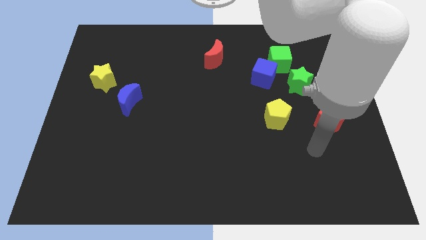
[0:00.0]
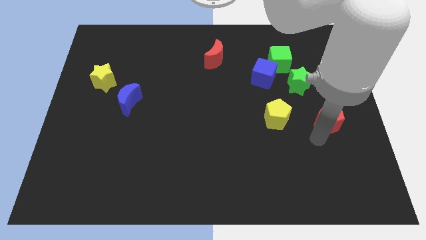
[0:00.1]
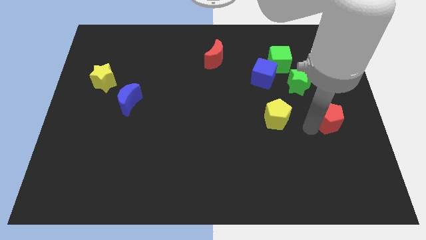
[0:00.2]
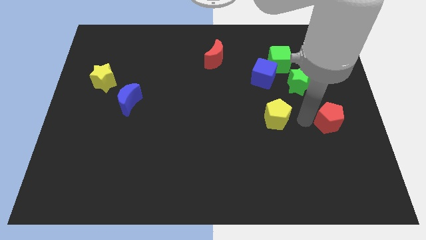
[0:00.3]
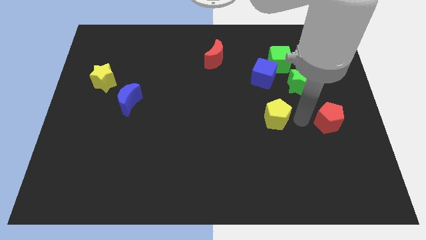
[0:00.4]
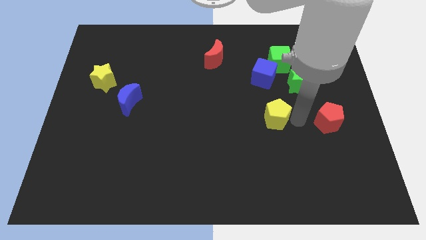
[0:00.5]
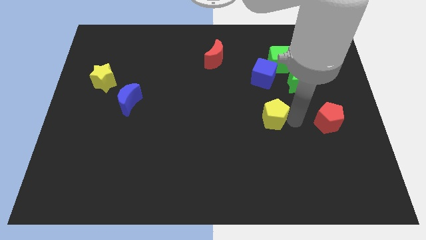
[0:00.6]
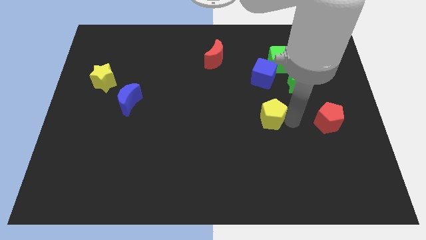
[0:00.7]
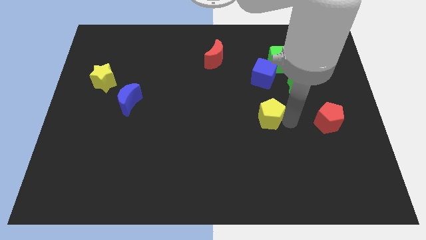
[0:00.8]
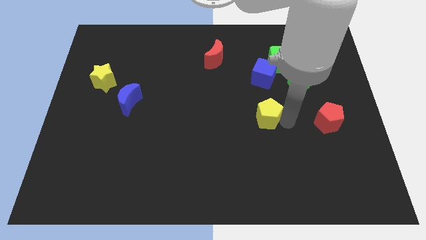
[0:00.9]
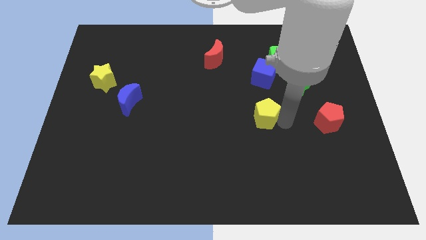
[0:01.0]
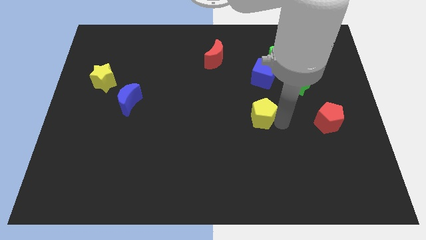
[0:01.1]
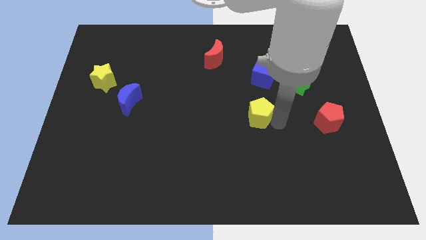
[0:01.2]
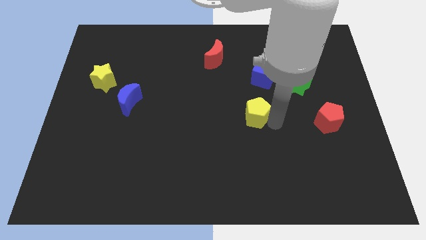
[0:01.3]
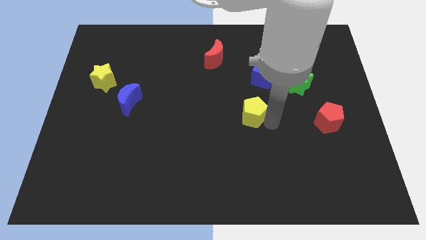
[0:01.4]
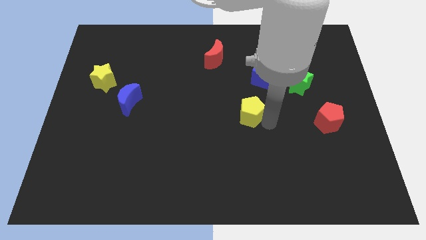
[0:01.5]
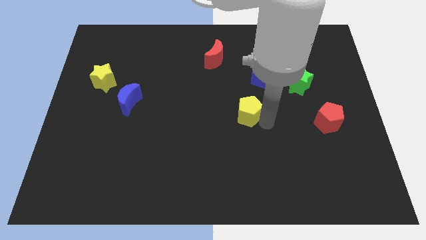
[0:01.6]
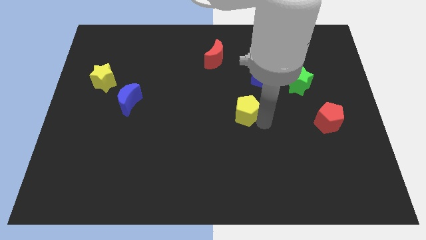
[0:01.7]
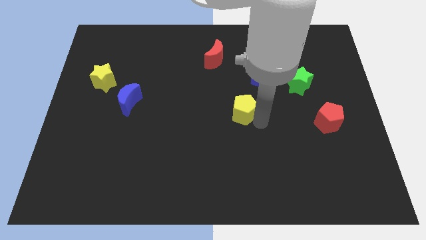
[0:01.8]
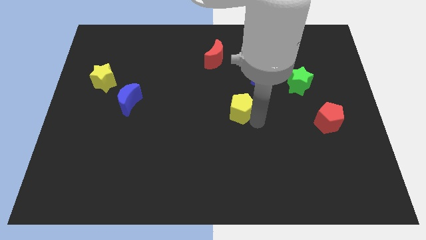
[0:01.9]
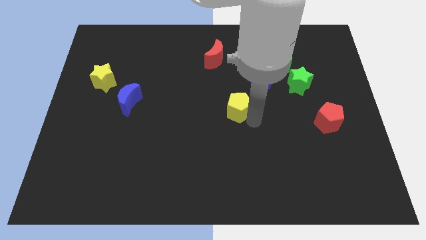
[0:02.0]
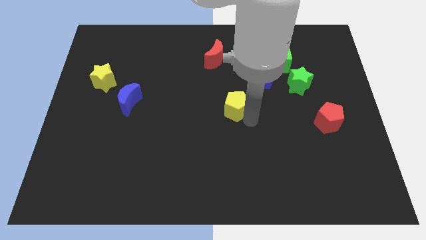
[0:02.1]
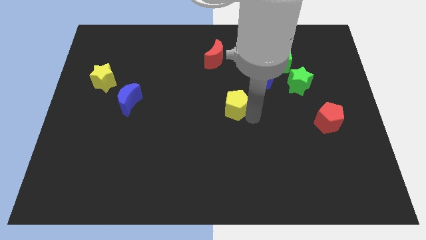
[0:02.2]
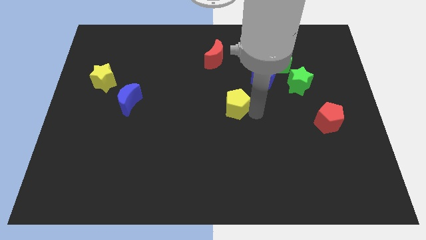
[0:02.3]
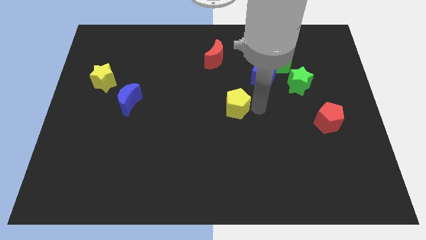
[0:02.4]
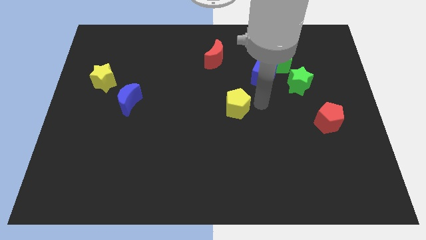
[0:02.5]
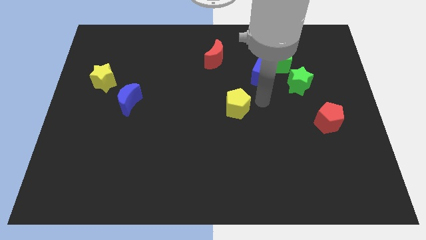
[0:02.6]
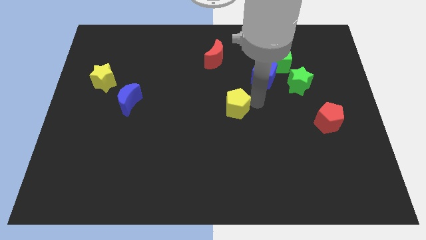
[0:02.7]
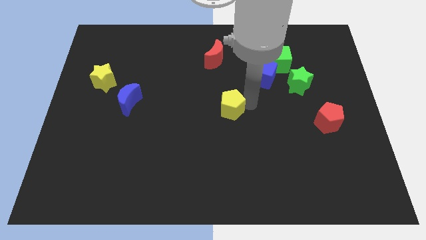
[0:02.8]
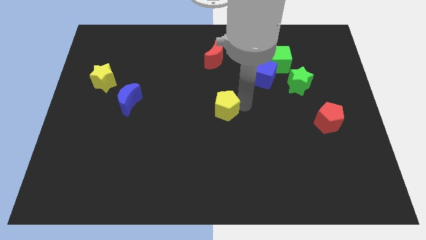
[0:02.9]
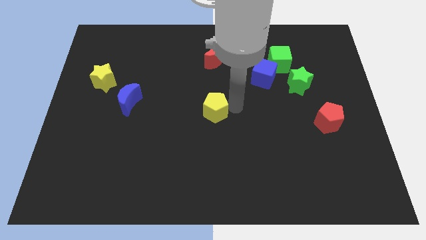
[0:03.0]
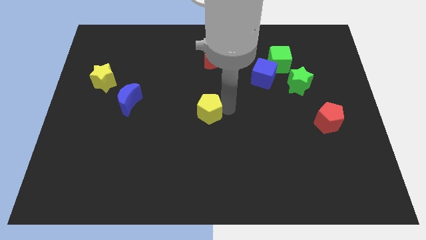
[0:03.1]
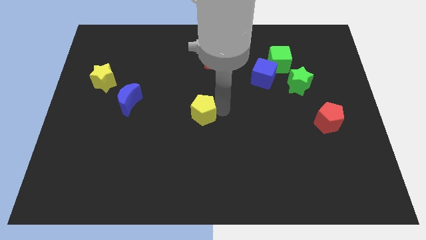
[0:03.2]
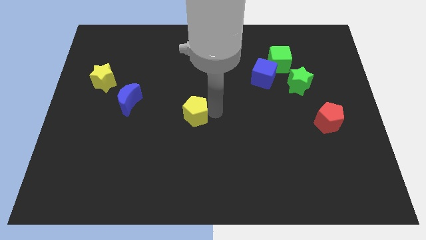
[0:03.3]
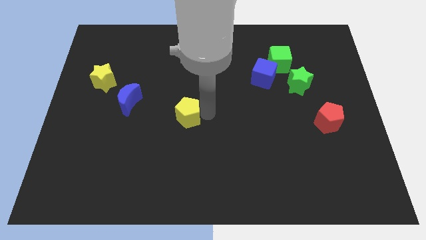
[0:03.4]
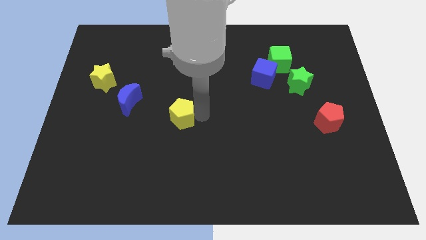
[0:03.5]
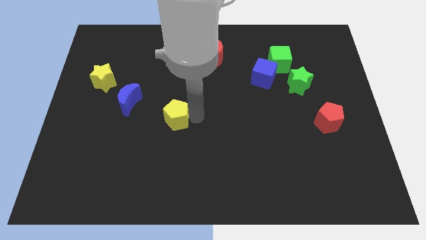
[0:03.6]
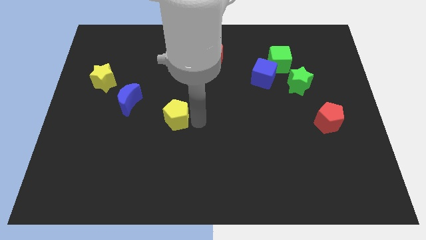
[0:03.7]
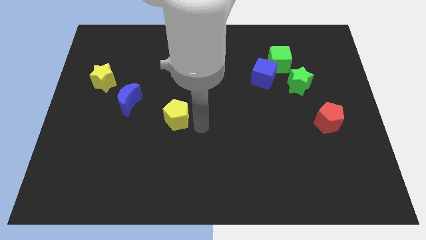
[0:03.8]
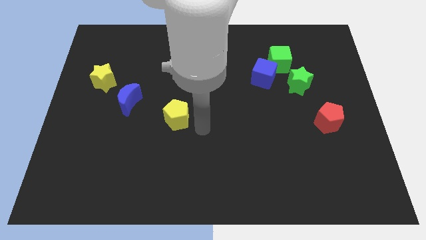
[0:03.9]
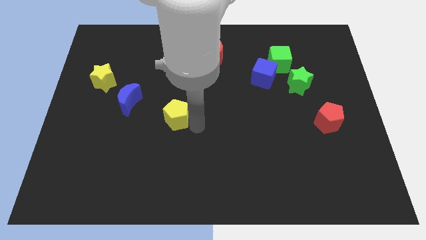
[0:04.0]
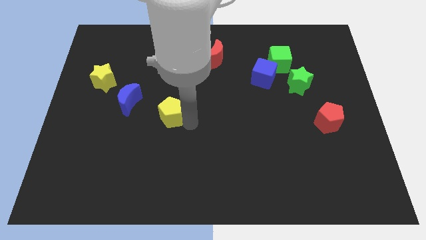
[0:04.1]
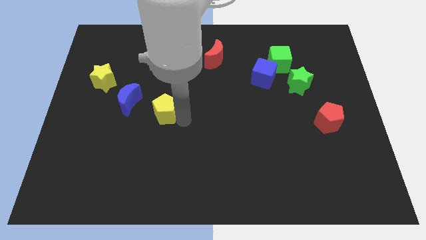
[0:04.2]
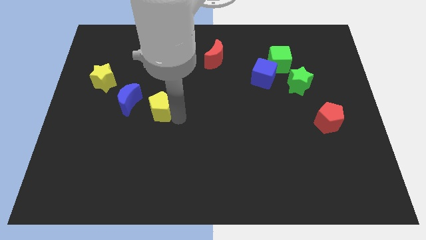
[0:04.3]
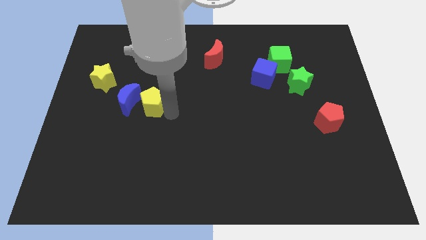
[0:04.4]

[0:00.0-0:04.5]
put the yellow pentagon to the blue moon

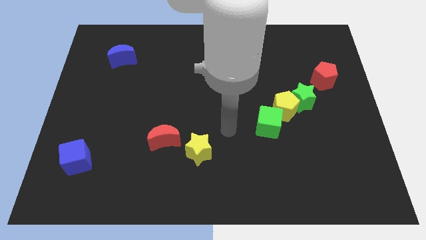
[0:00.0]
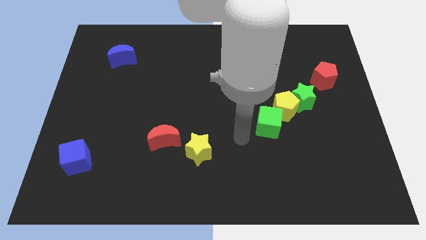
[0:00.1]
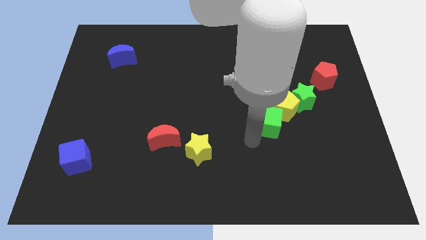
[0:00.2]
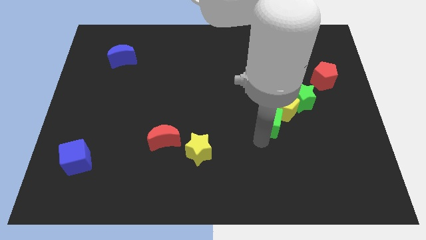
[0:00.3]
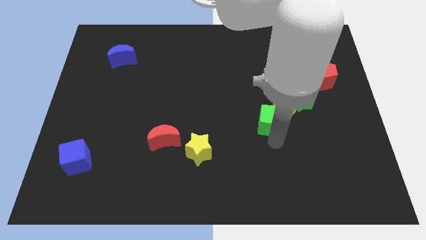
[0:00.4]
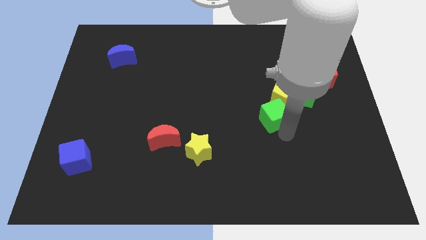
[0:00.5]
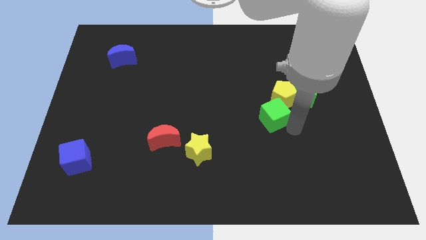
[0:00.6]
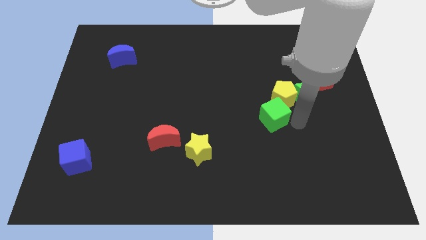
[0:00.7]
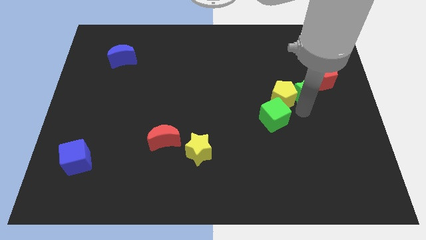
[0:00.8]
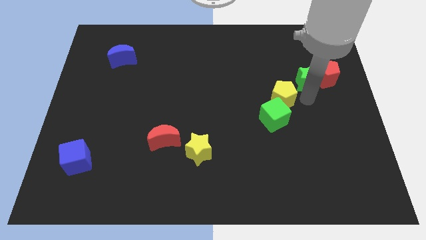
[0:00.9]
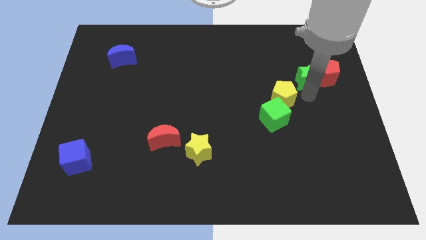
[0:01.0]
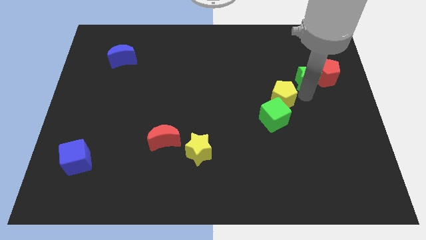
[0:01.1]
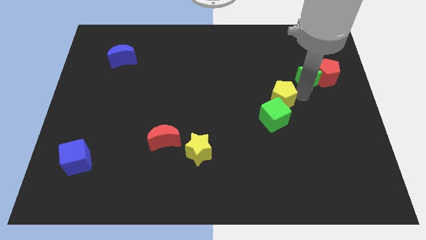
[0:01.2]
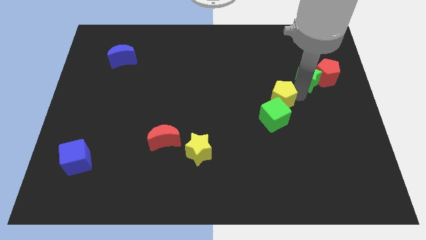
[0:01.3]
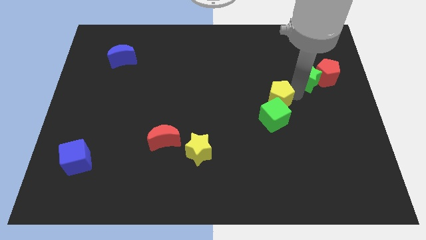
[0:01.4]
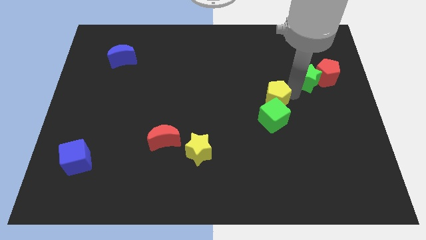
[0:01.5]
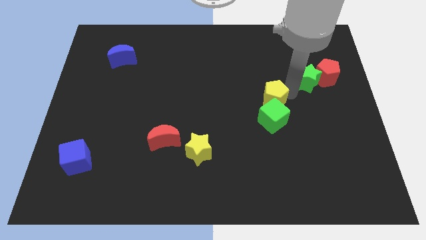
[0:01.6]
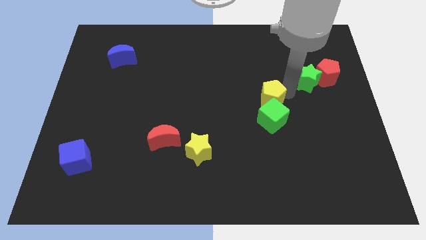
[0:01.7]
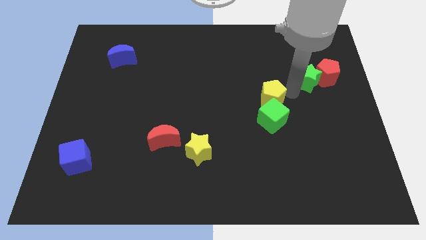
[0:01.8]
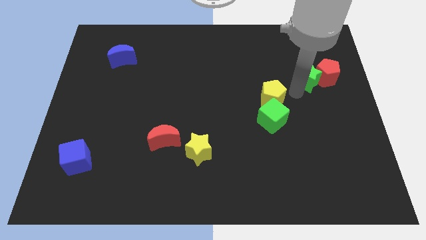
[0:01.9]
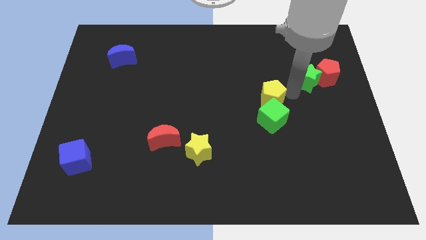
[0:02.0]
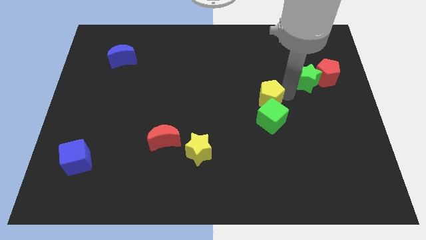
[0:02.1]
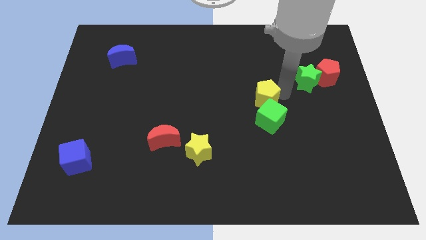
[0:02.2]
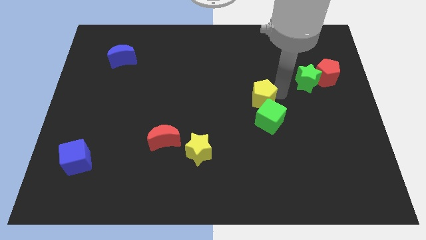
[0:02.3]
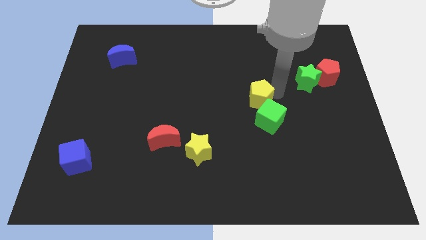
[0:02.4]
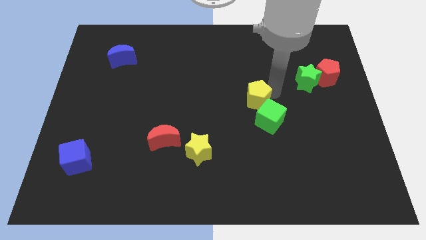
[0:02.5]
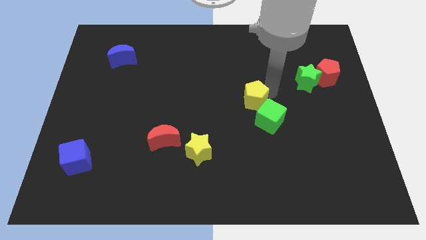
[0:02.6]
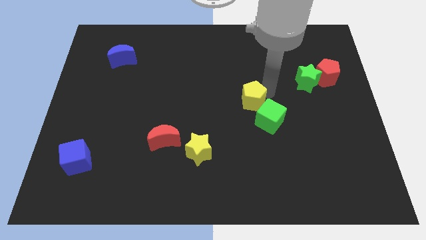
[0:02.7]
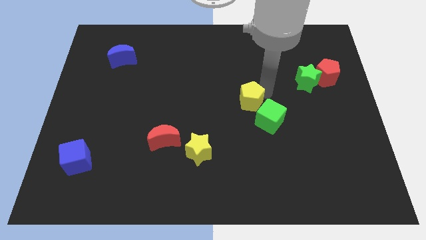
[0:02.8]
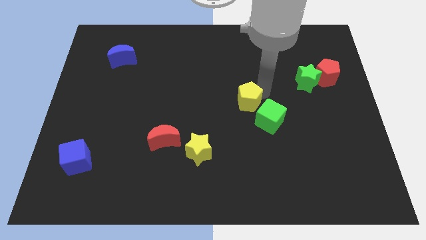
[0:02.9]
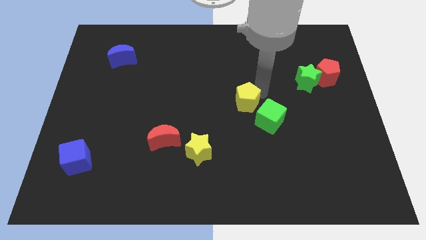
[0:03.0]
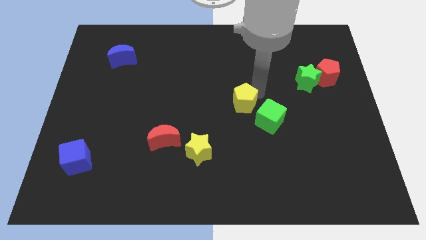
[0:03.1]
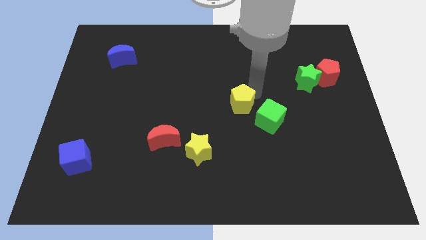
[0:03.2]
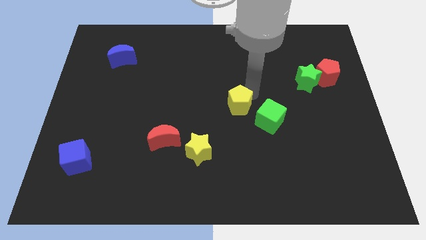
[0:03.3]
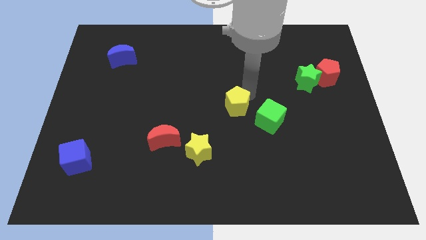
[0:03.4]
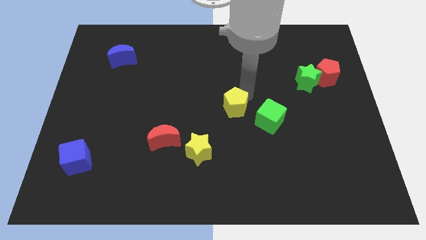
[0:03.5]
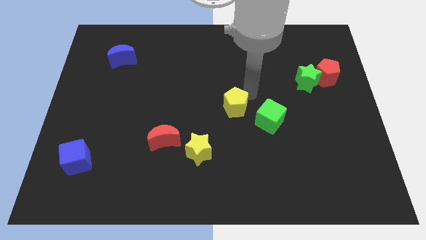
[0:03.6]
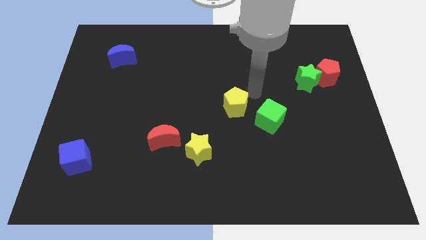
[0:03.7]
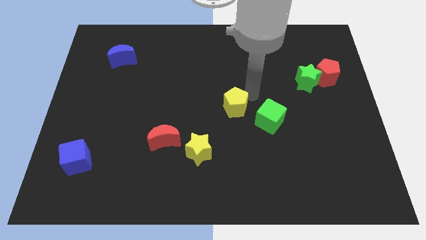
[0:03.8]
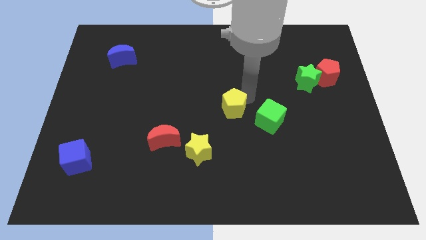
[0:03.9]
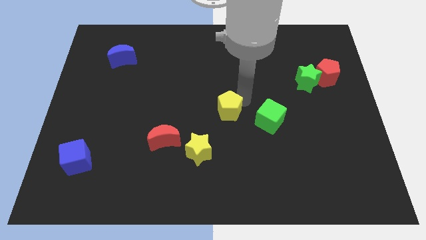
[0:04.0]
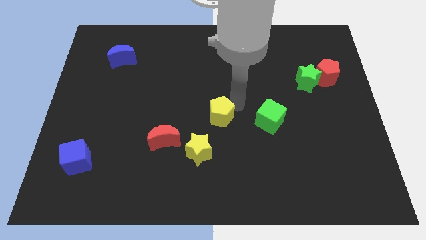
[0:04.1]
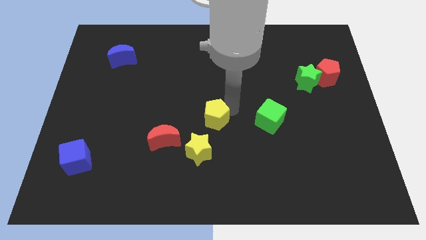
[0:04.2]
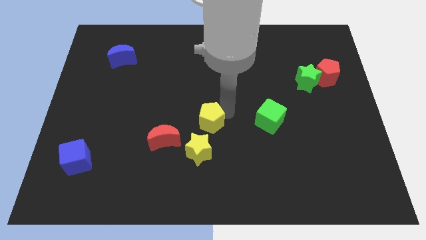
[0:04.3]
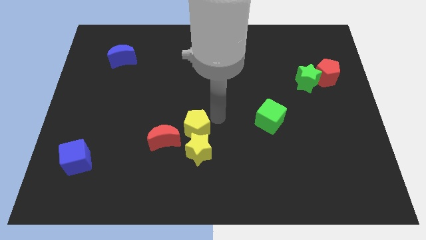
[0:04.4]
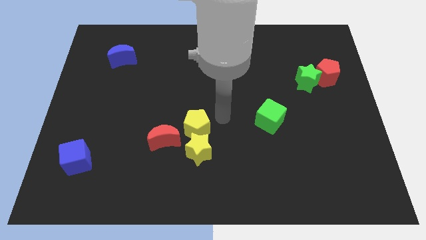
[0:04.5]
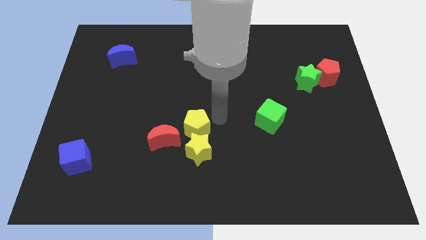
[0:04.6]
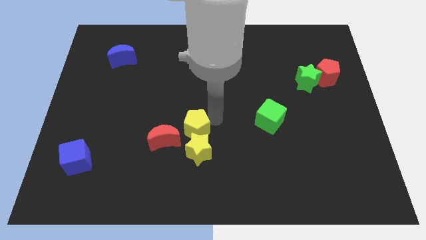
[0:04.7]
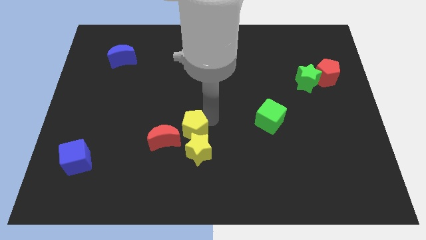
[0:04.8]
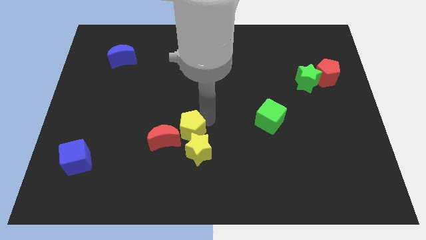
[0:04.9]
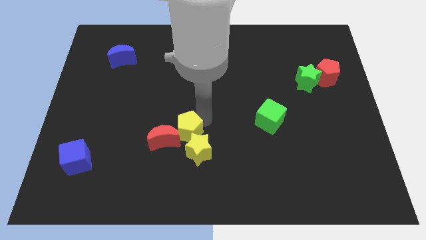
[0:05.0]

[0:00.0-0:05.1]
move the yellow pentagon to the red moon
